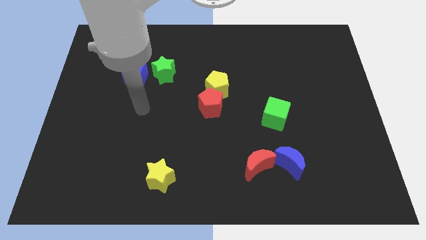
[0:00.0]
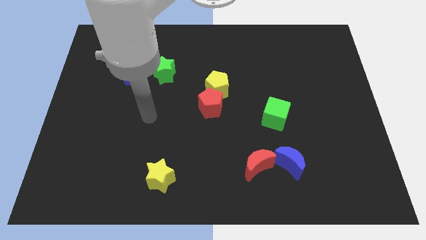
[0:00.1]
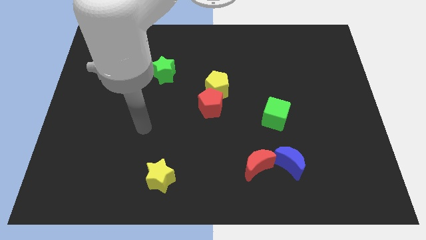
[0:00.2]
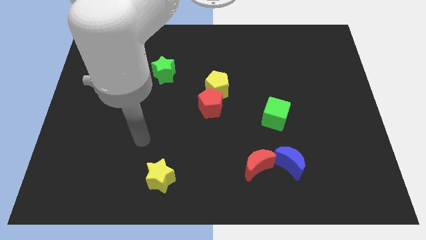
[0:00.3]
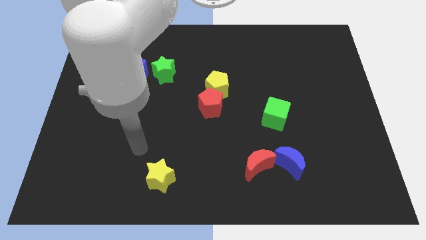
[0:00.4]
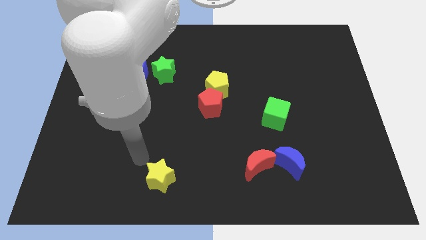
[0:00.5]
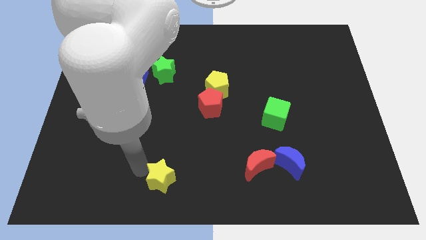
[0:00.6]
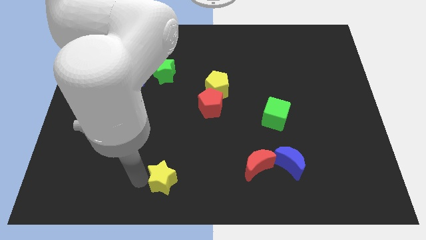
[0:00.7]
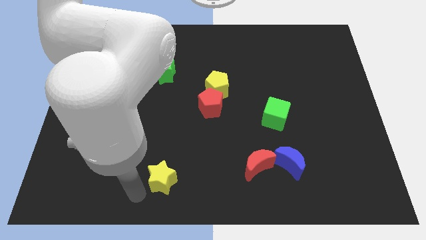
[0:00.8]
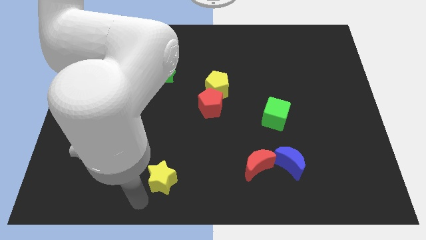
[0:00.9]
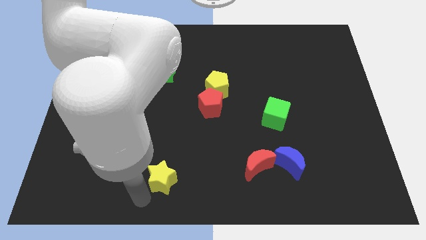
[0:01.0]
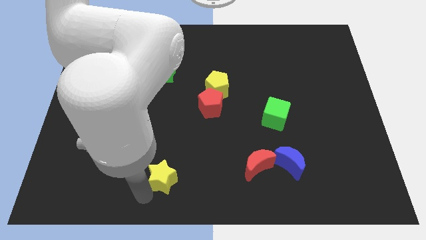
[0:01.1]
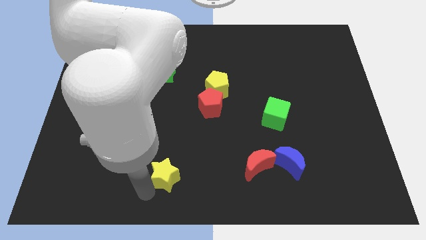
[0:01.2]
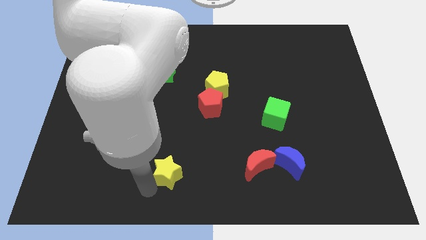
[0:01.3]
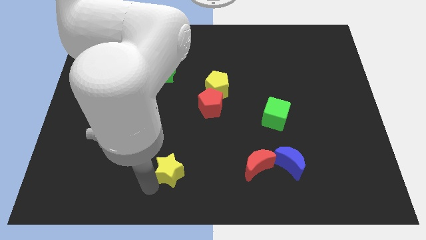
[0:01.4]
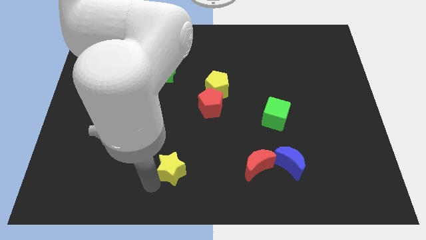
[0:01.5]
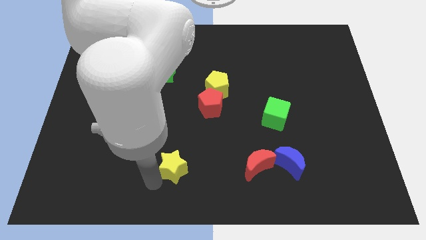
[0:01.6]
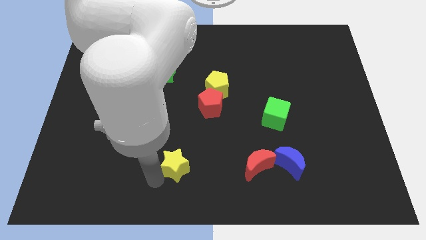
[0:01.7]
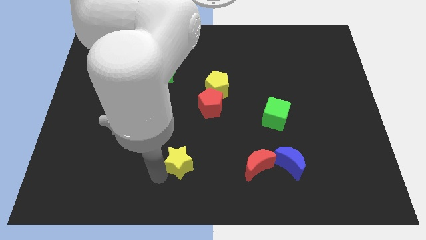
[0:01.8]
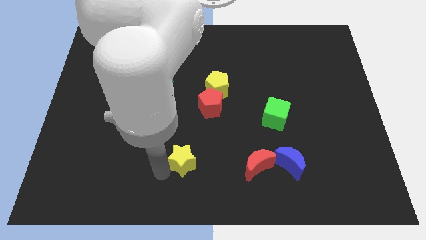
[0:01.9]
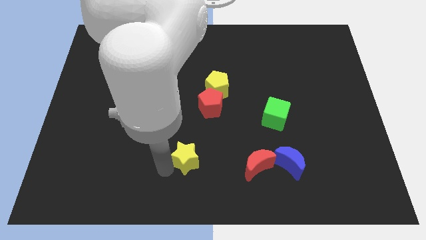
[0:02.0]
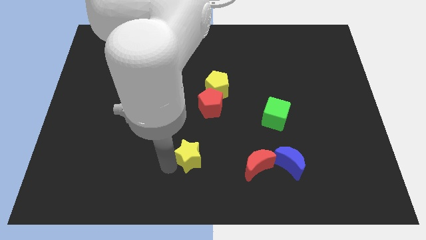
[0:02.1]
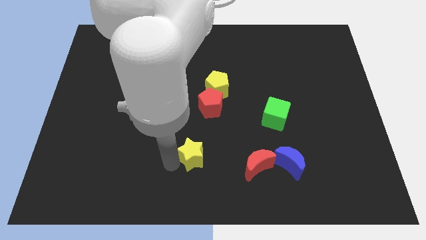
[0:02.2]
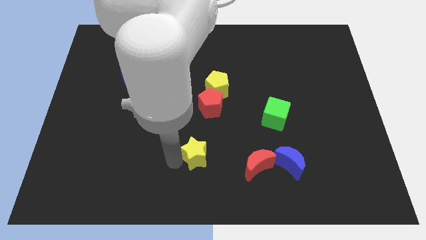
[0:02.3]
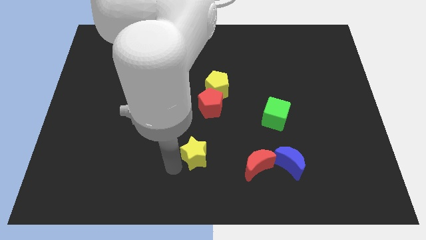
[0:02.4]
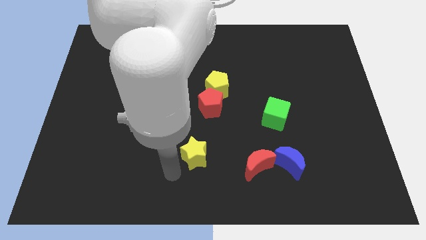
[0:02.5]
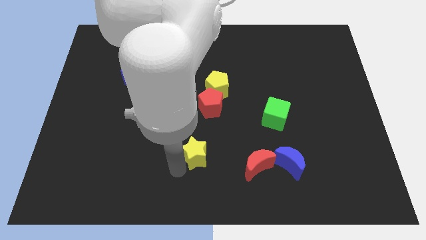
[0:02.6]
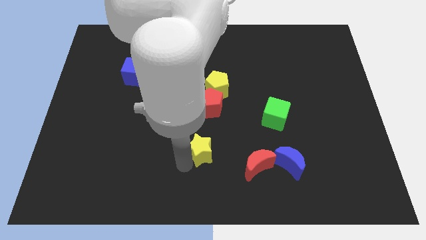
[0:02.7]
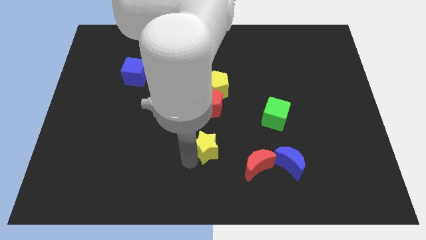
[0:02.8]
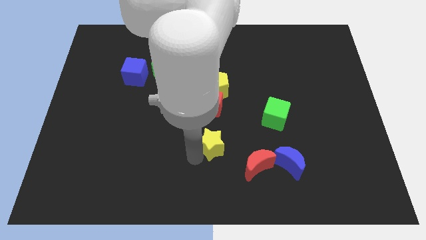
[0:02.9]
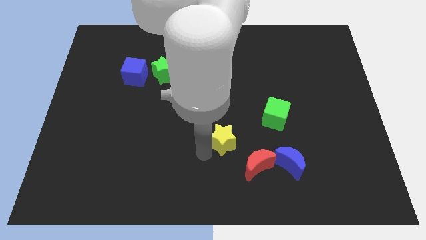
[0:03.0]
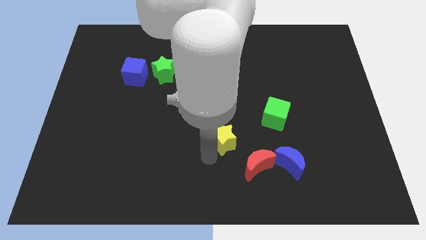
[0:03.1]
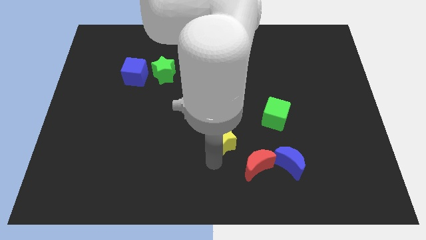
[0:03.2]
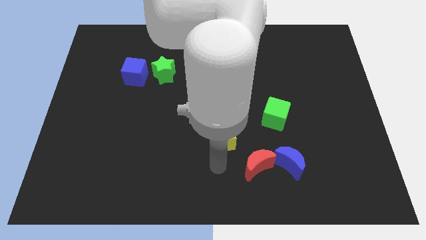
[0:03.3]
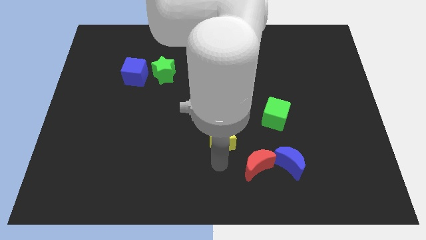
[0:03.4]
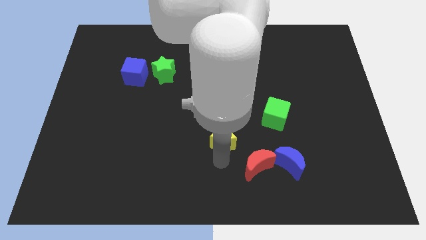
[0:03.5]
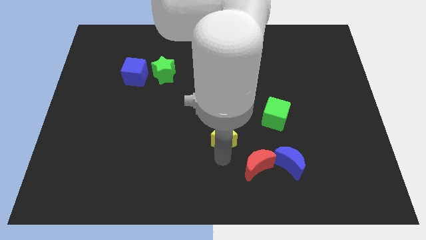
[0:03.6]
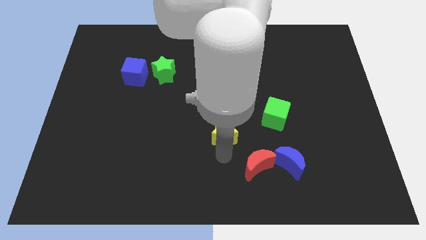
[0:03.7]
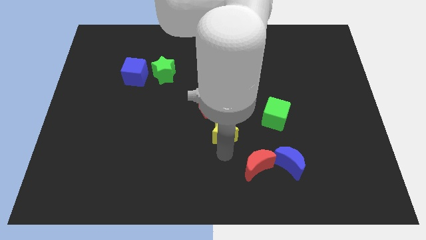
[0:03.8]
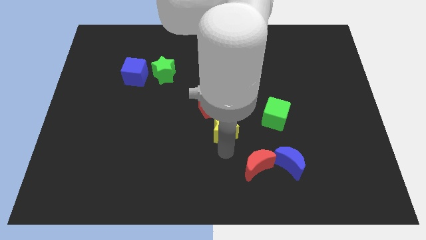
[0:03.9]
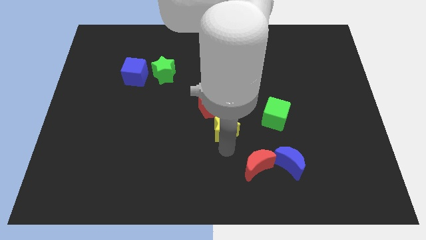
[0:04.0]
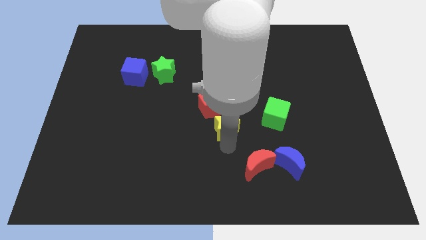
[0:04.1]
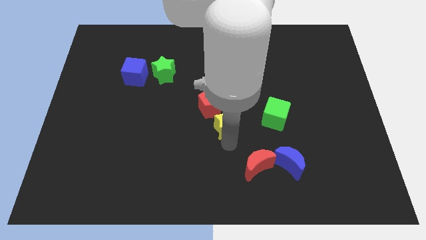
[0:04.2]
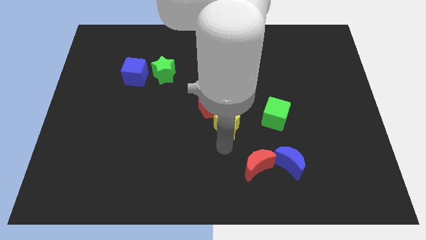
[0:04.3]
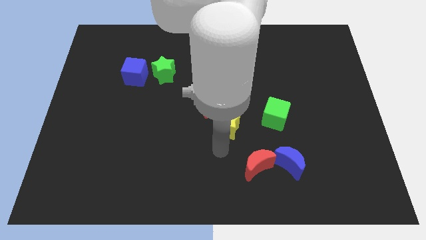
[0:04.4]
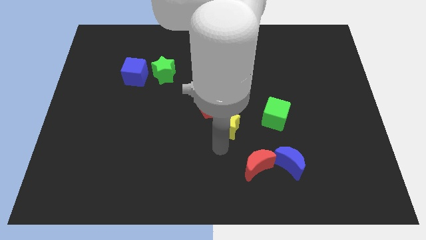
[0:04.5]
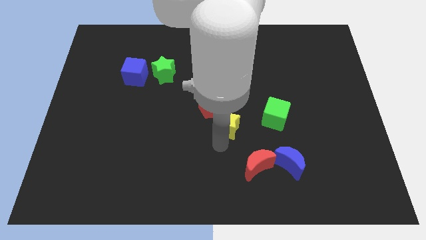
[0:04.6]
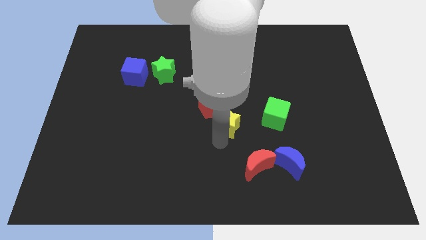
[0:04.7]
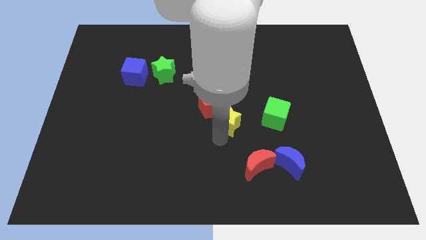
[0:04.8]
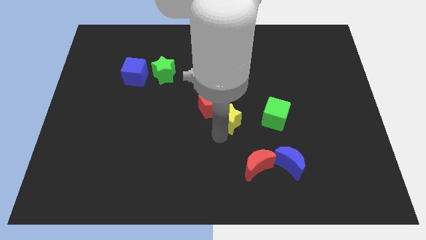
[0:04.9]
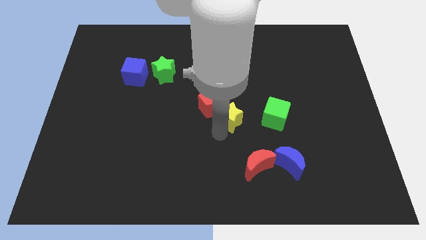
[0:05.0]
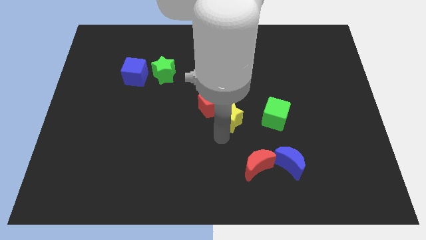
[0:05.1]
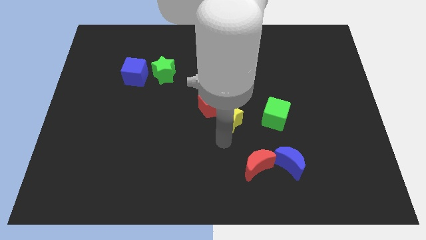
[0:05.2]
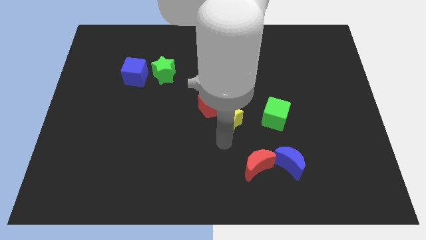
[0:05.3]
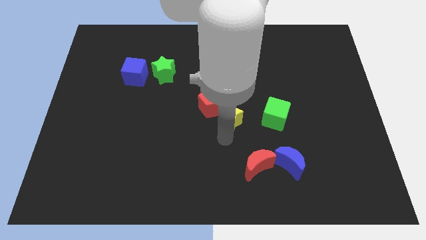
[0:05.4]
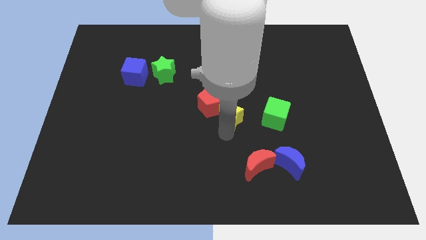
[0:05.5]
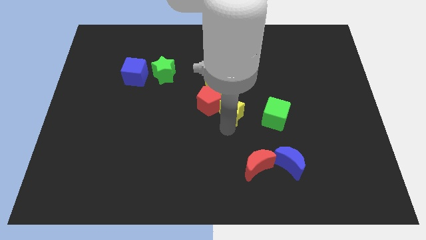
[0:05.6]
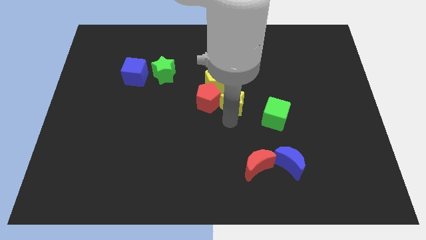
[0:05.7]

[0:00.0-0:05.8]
put the yellow star to the top right of the red pentagon

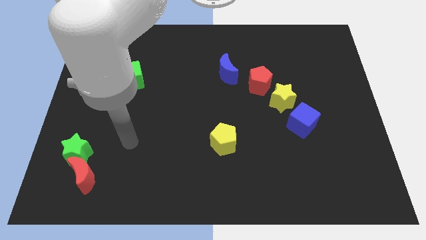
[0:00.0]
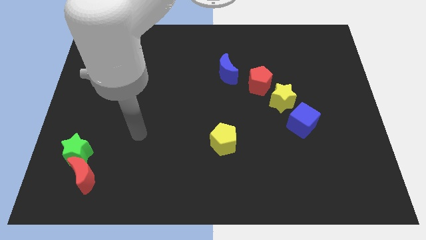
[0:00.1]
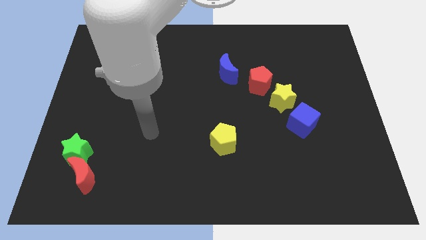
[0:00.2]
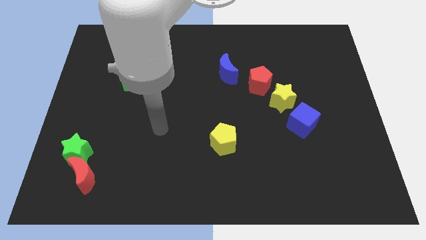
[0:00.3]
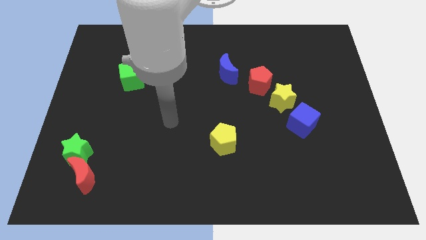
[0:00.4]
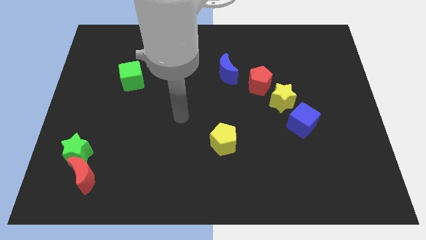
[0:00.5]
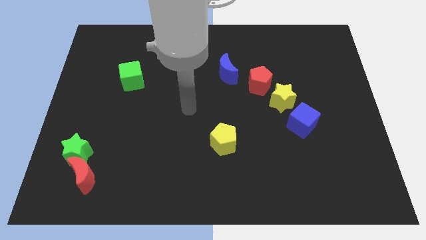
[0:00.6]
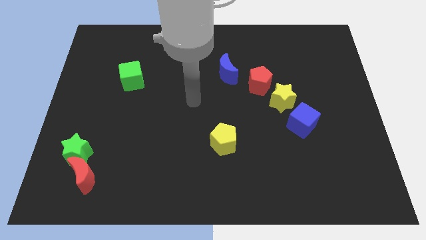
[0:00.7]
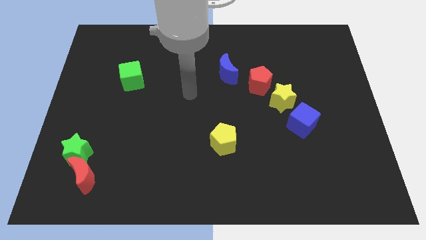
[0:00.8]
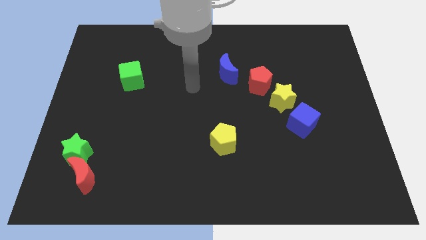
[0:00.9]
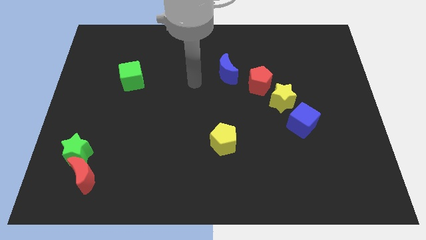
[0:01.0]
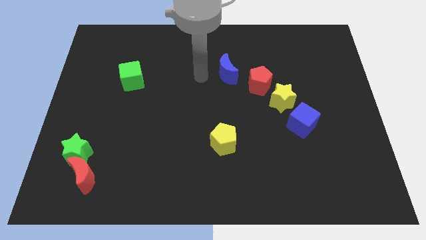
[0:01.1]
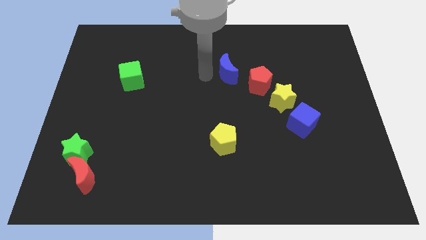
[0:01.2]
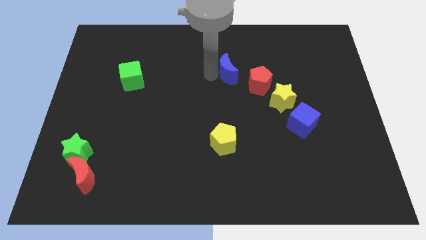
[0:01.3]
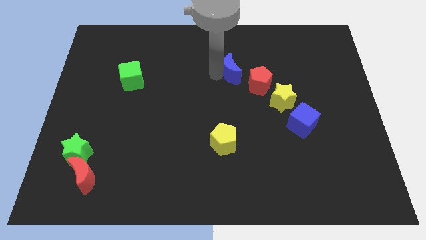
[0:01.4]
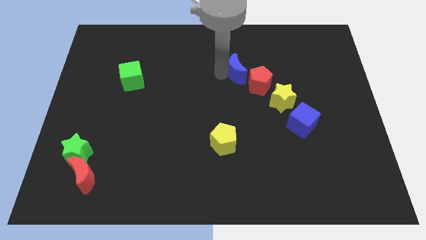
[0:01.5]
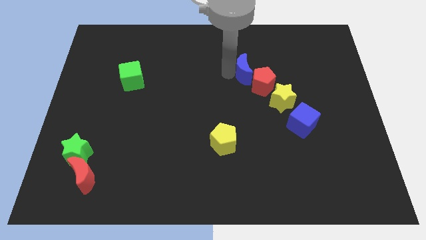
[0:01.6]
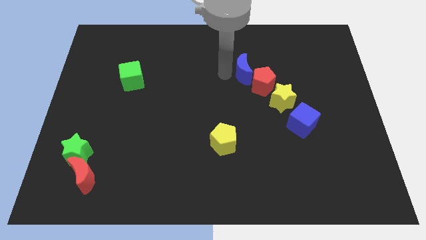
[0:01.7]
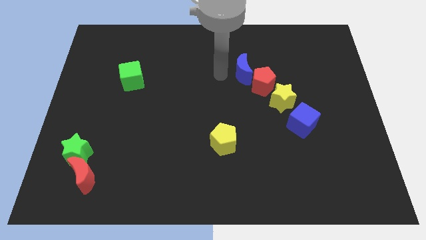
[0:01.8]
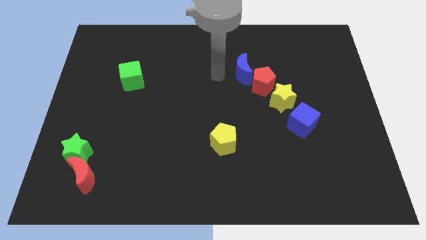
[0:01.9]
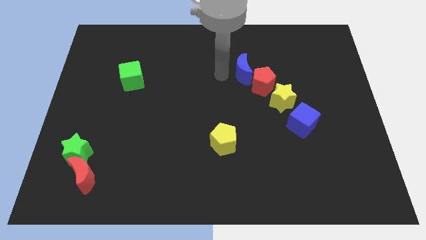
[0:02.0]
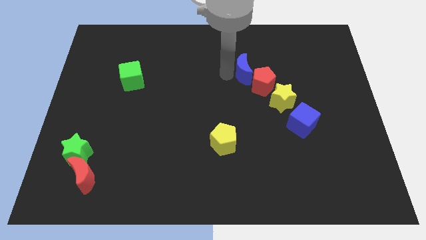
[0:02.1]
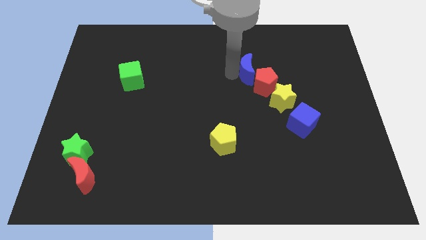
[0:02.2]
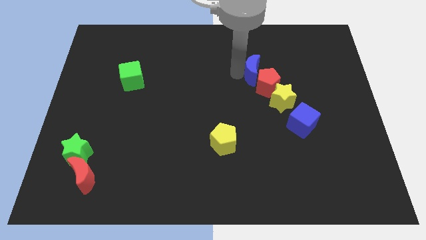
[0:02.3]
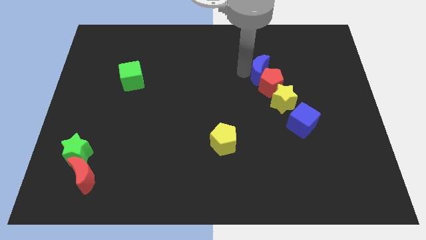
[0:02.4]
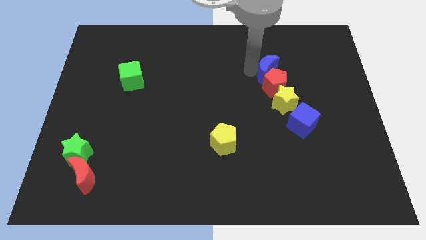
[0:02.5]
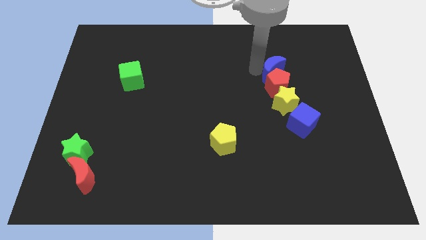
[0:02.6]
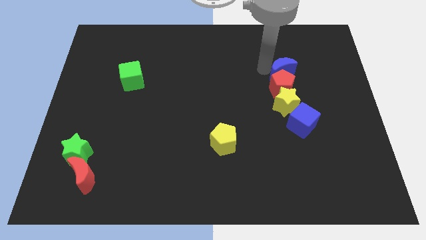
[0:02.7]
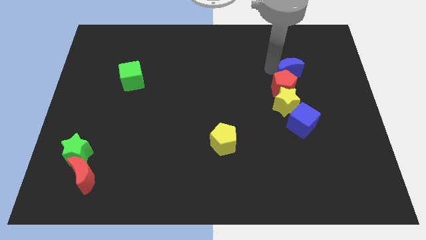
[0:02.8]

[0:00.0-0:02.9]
put the blue moon above the blue cube
